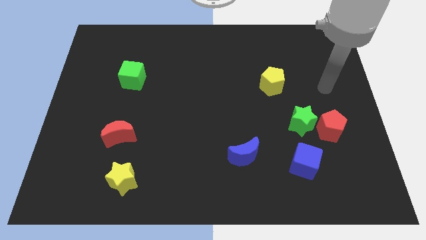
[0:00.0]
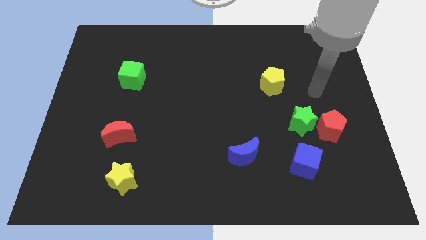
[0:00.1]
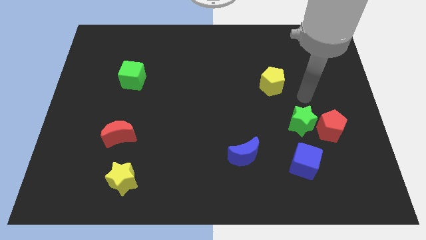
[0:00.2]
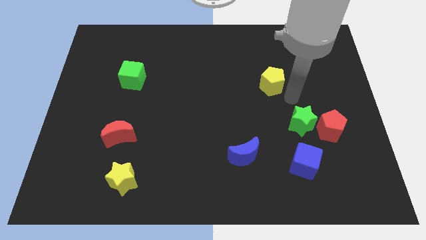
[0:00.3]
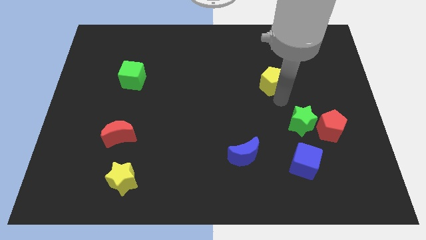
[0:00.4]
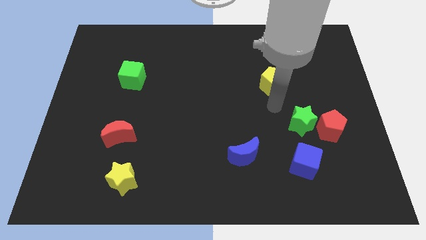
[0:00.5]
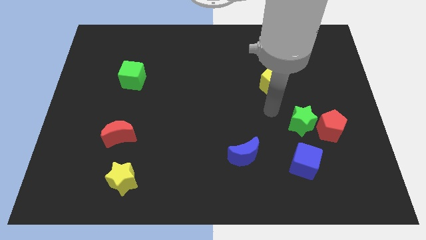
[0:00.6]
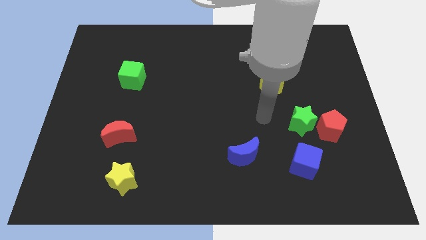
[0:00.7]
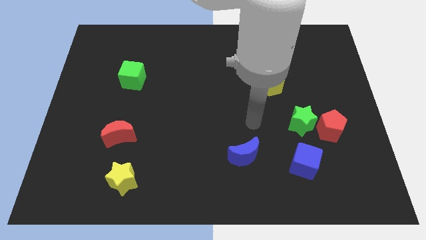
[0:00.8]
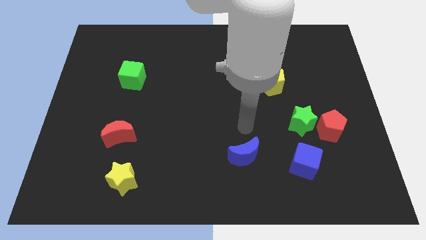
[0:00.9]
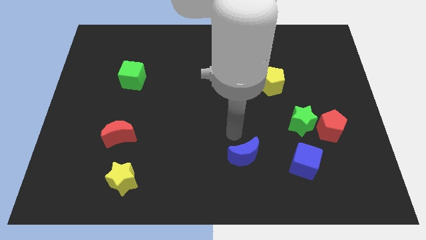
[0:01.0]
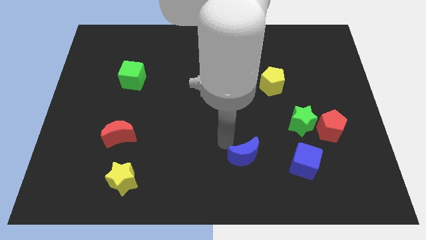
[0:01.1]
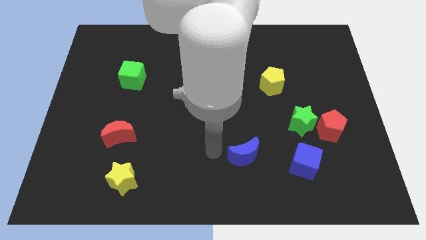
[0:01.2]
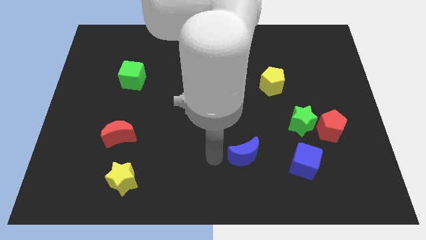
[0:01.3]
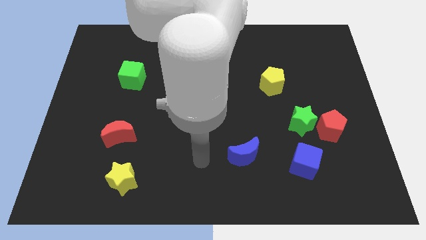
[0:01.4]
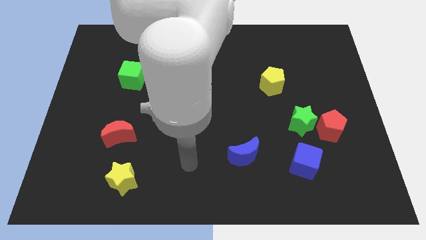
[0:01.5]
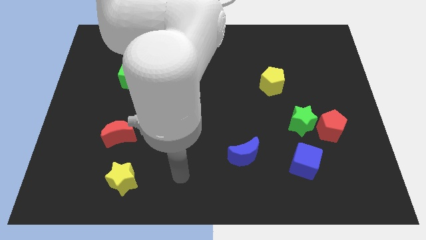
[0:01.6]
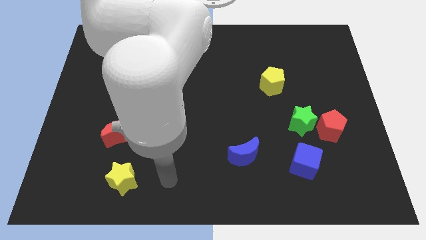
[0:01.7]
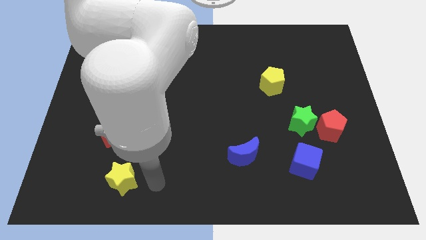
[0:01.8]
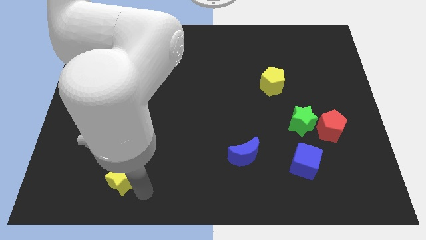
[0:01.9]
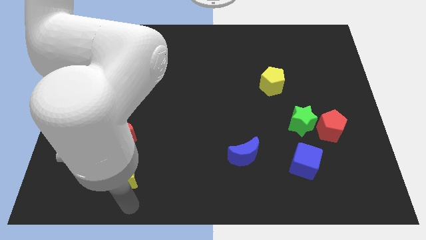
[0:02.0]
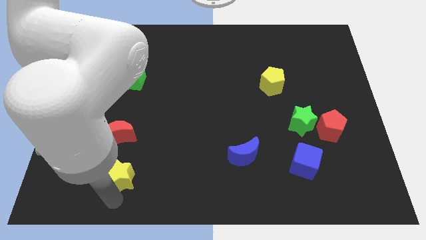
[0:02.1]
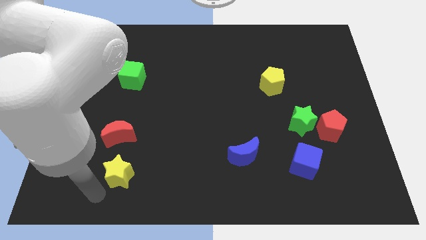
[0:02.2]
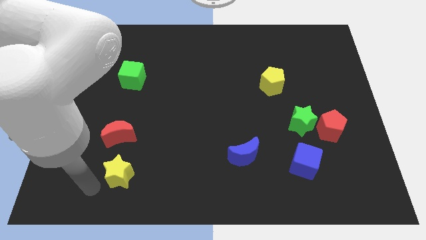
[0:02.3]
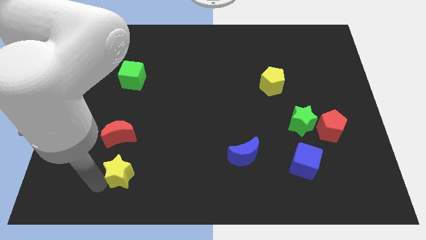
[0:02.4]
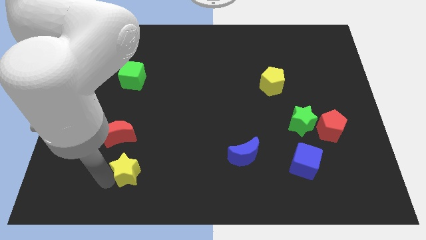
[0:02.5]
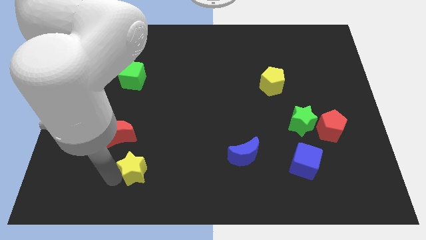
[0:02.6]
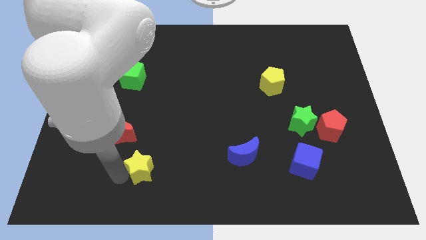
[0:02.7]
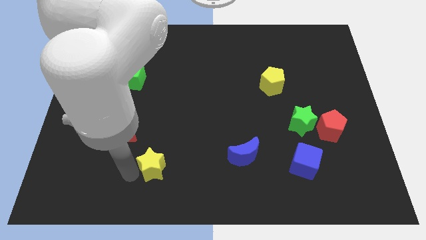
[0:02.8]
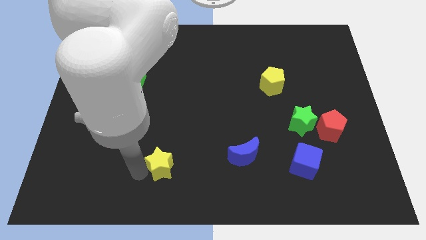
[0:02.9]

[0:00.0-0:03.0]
move the yellow star a little bit up and then right

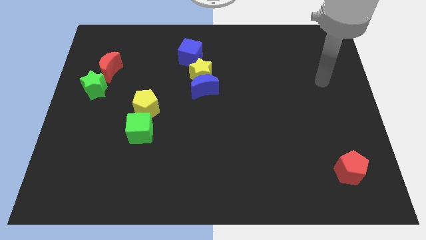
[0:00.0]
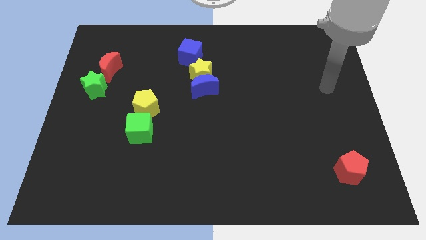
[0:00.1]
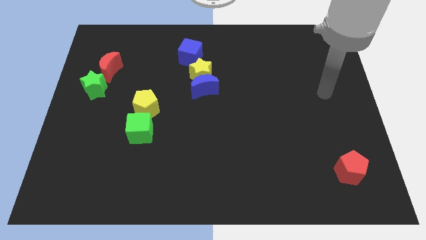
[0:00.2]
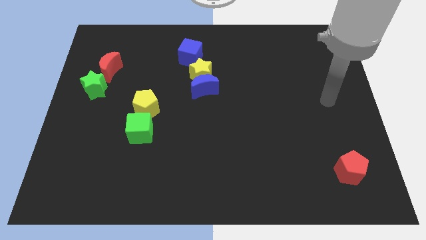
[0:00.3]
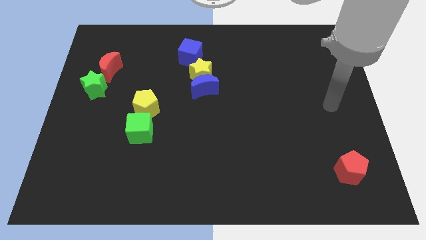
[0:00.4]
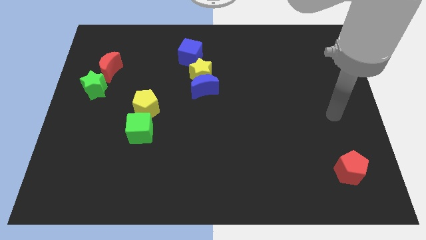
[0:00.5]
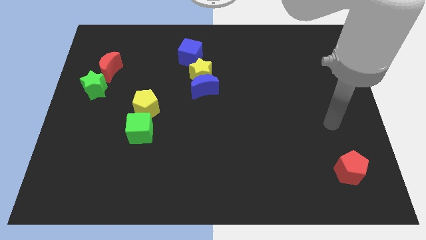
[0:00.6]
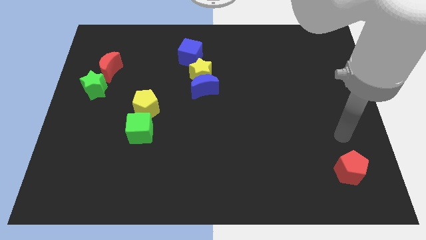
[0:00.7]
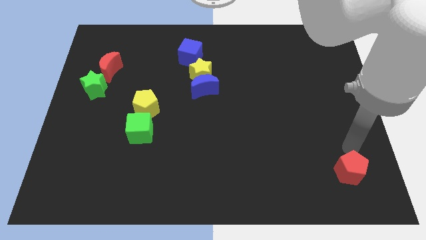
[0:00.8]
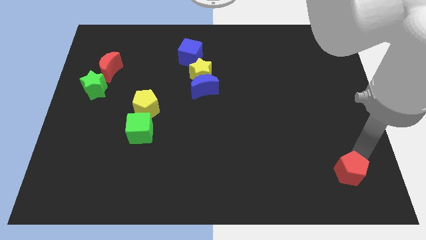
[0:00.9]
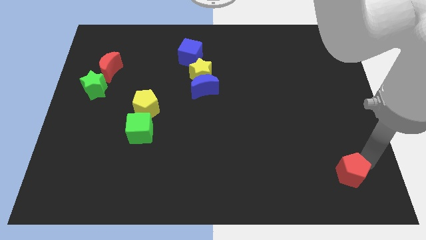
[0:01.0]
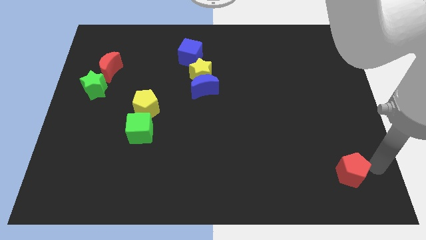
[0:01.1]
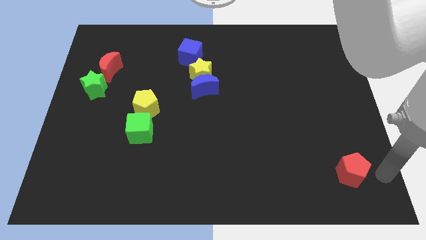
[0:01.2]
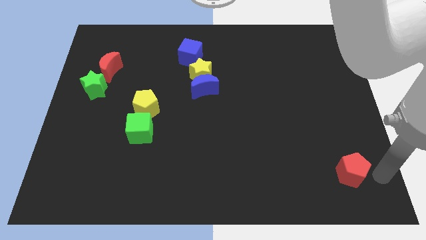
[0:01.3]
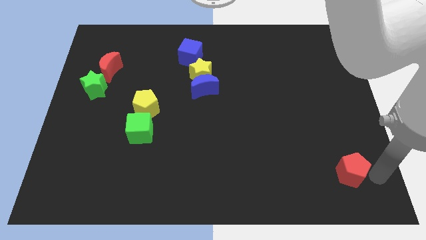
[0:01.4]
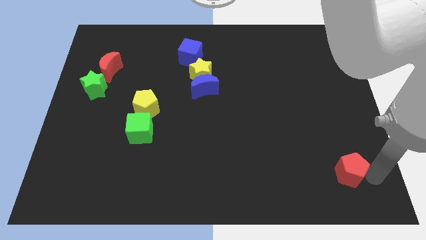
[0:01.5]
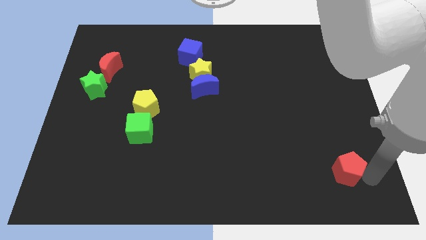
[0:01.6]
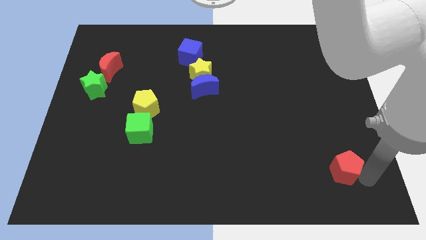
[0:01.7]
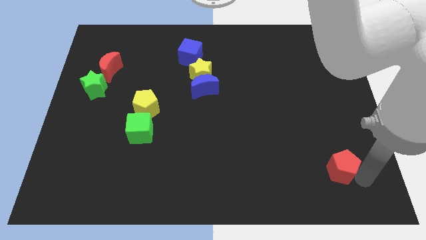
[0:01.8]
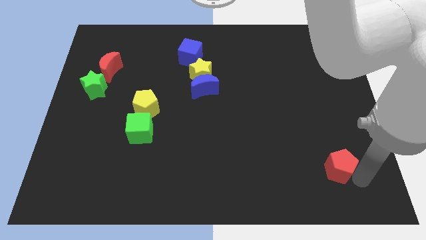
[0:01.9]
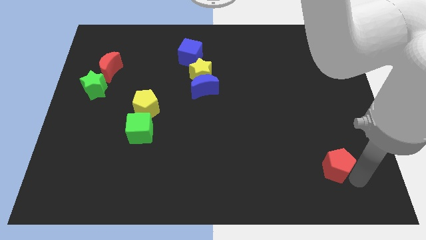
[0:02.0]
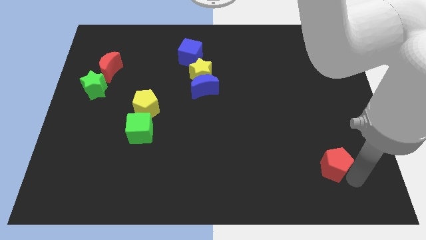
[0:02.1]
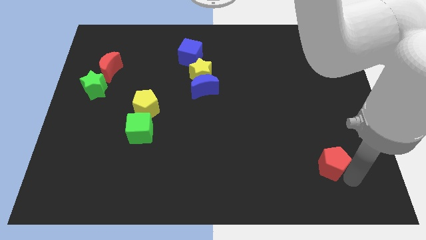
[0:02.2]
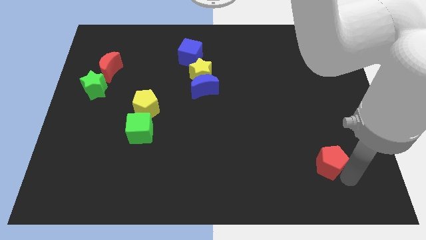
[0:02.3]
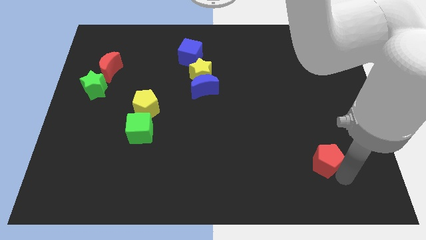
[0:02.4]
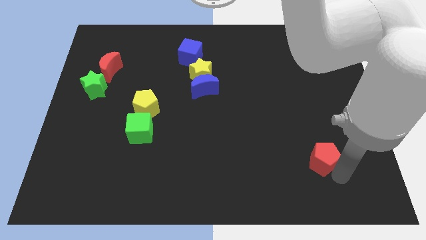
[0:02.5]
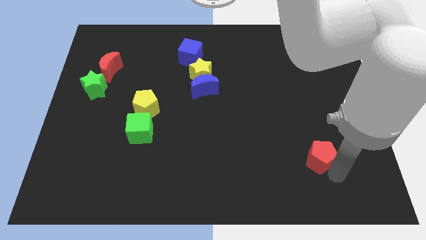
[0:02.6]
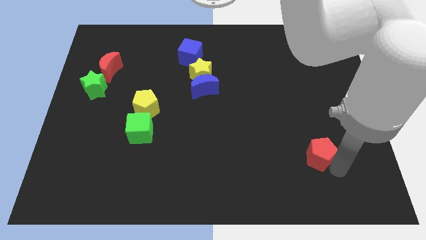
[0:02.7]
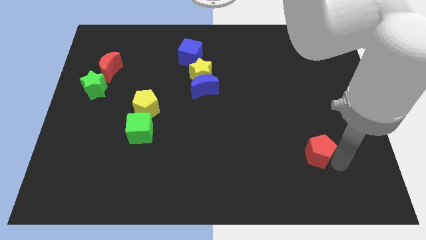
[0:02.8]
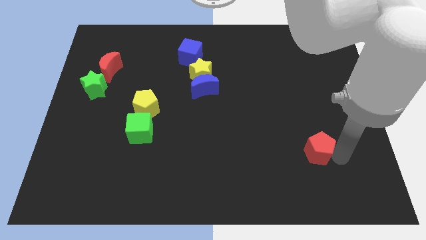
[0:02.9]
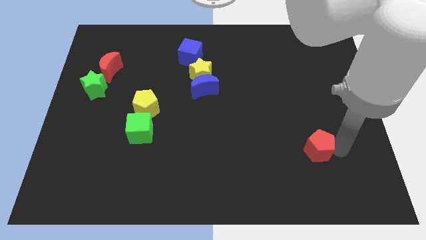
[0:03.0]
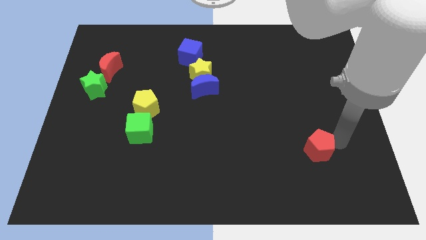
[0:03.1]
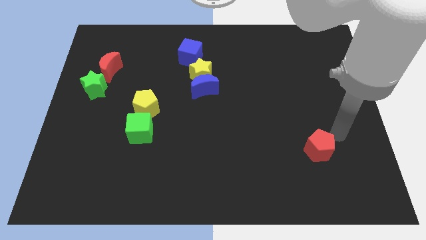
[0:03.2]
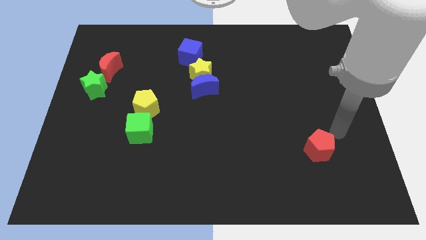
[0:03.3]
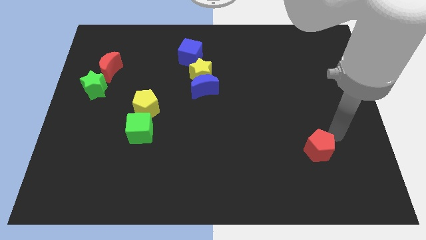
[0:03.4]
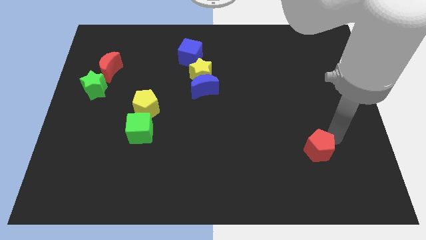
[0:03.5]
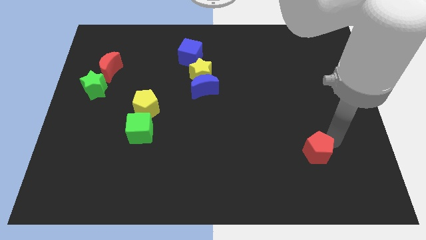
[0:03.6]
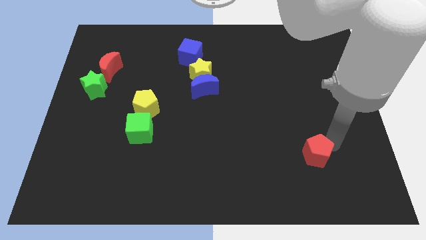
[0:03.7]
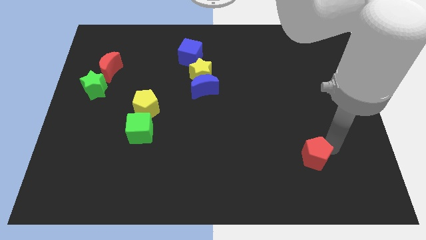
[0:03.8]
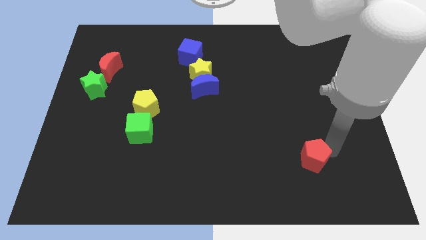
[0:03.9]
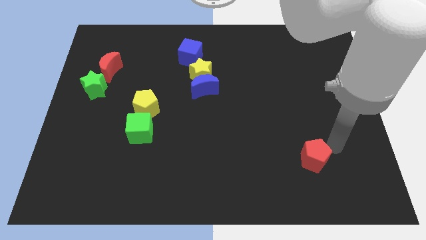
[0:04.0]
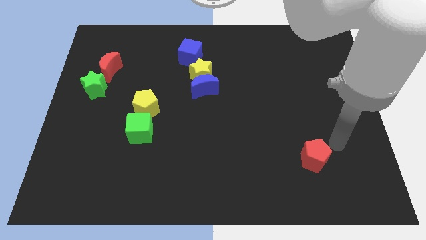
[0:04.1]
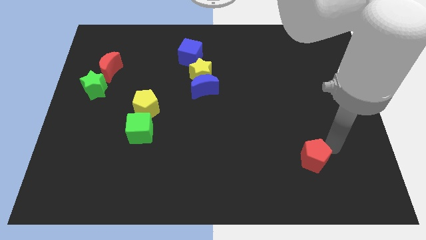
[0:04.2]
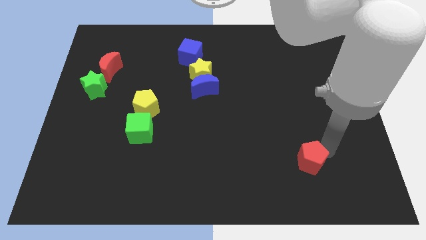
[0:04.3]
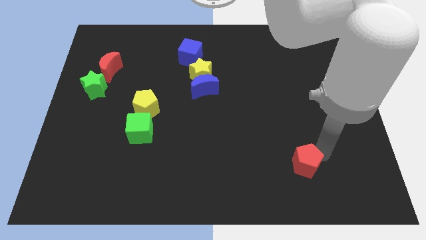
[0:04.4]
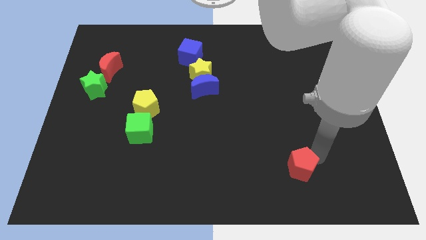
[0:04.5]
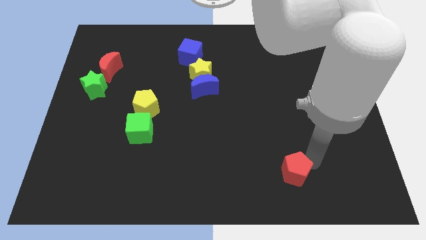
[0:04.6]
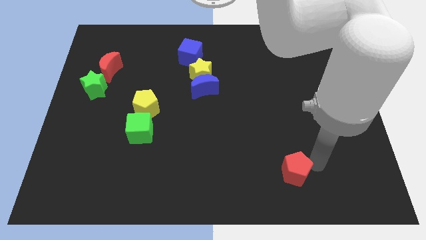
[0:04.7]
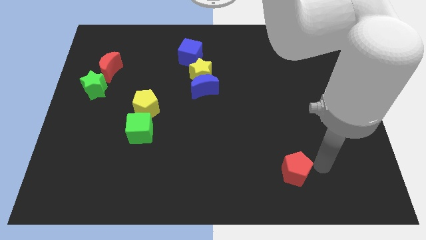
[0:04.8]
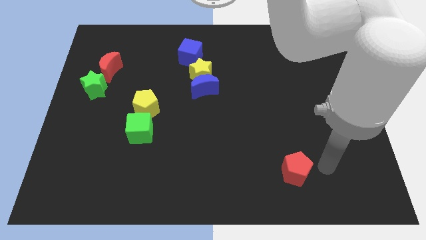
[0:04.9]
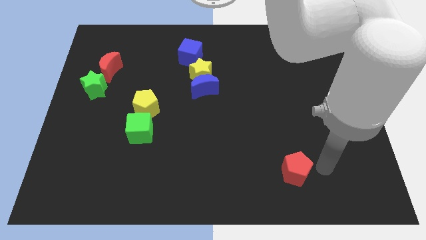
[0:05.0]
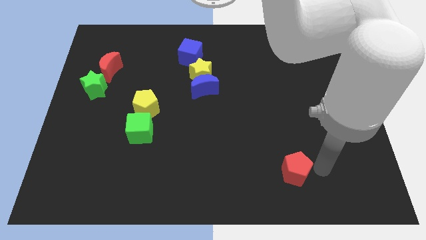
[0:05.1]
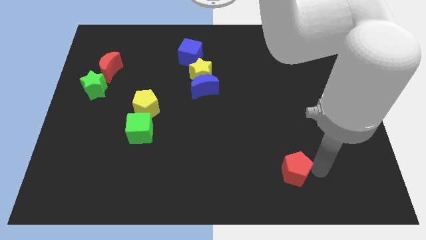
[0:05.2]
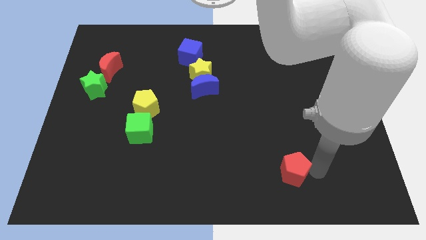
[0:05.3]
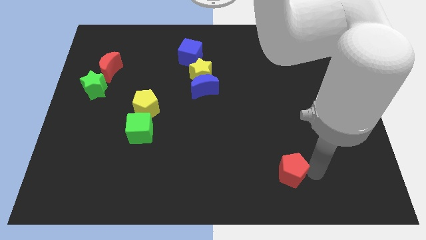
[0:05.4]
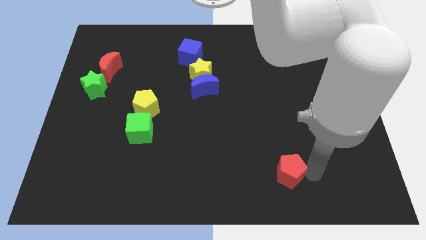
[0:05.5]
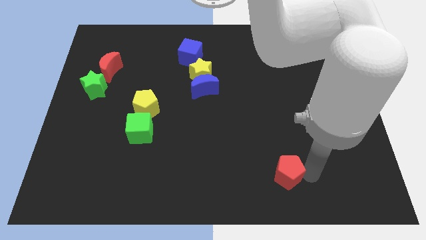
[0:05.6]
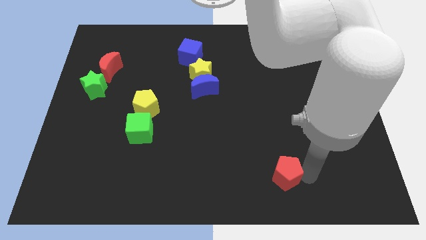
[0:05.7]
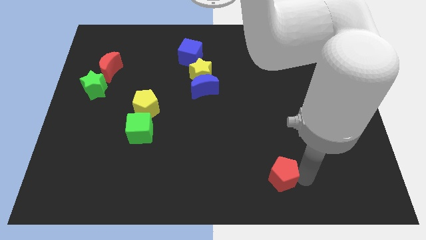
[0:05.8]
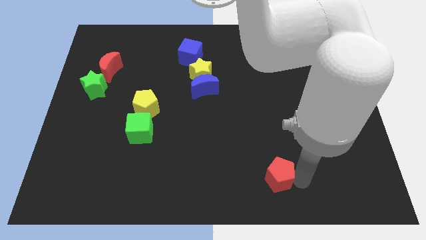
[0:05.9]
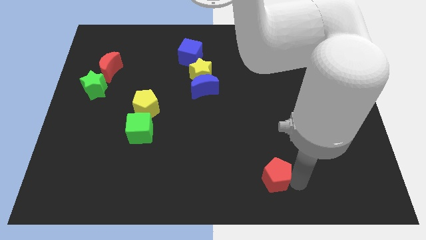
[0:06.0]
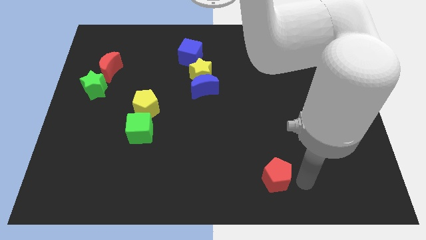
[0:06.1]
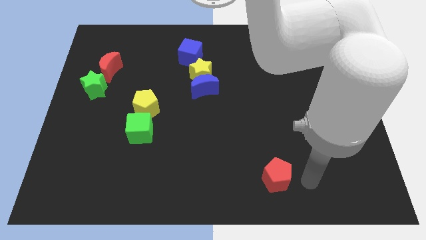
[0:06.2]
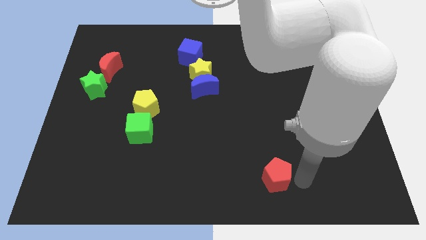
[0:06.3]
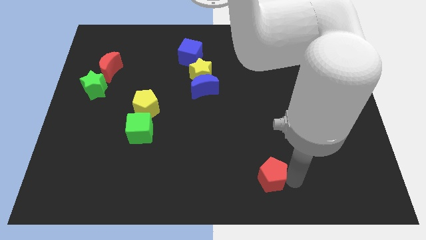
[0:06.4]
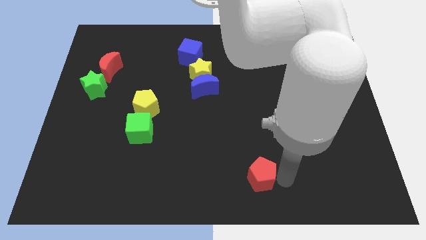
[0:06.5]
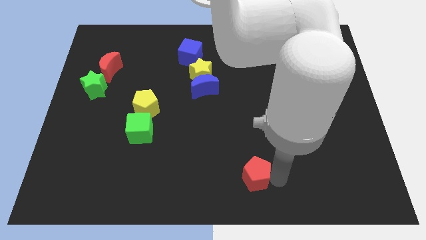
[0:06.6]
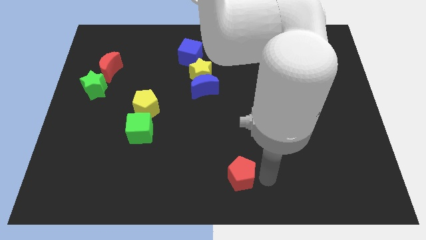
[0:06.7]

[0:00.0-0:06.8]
slide the red pentagon left
